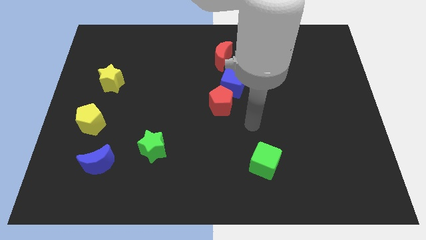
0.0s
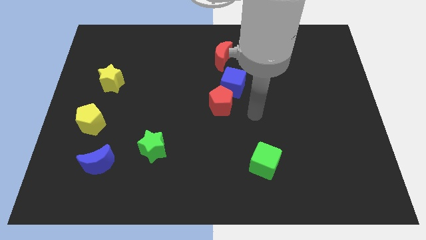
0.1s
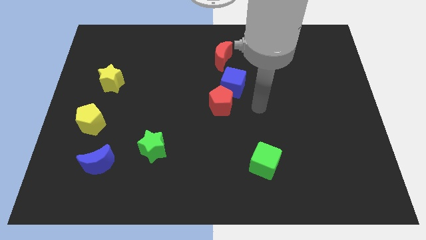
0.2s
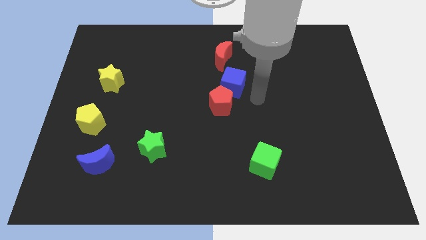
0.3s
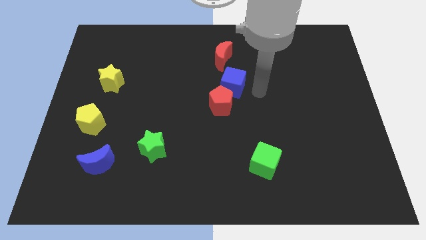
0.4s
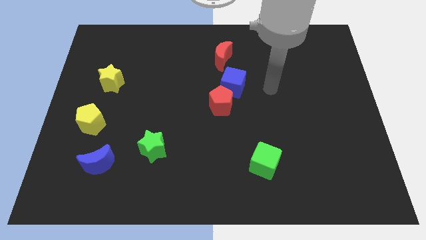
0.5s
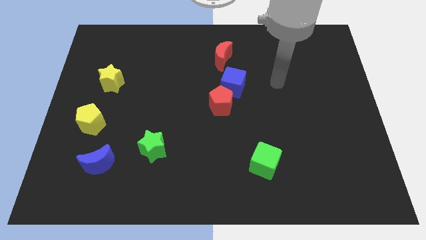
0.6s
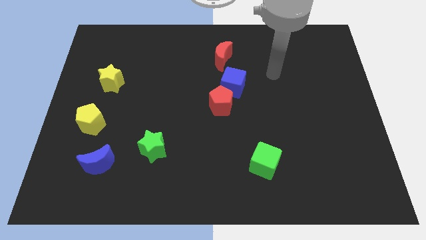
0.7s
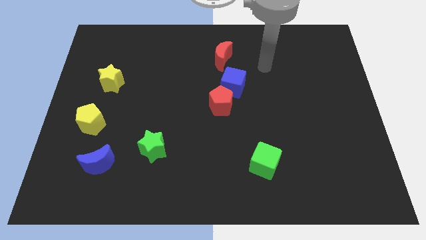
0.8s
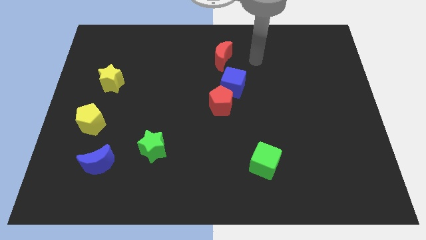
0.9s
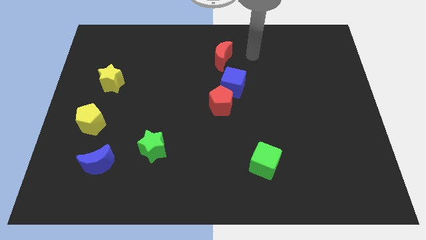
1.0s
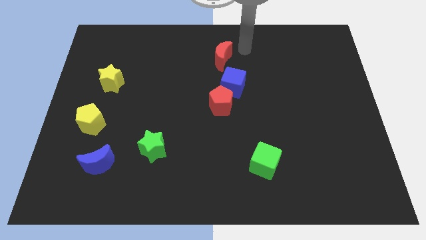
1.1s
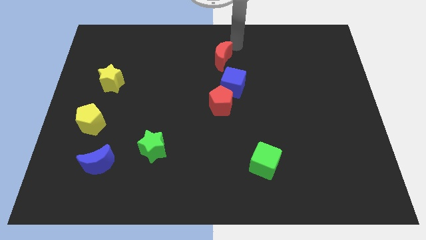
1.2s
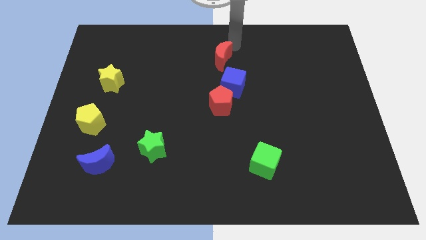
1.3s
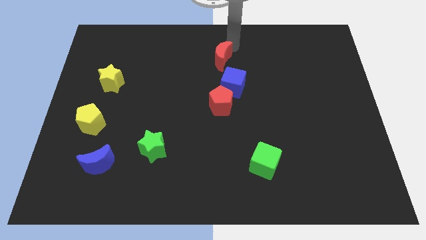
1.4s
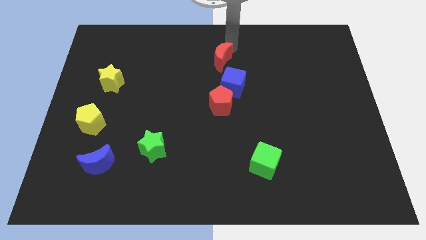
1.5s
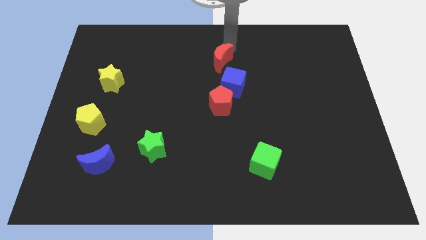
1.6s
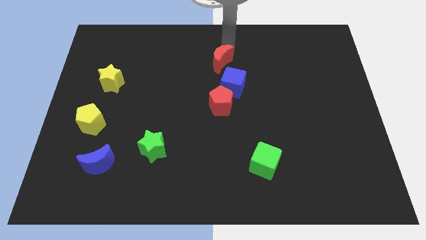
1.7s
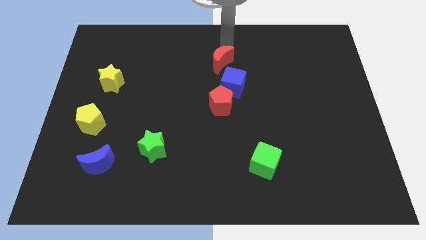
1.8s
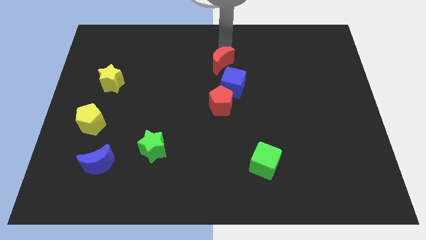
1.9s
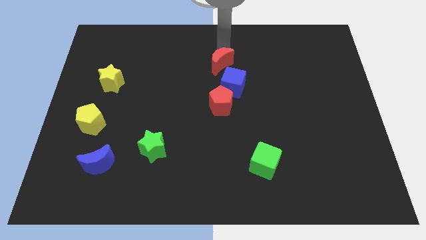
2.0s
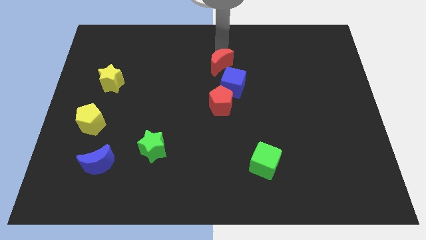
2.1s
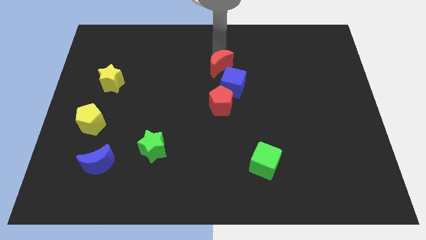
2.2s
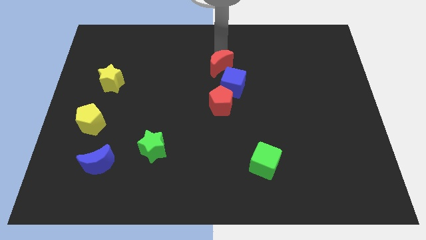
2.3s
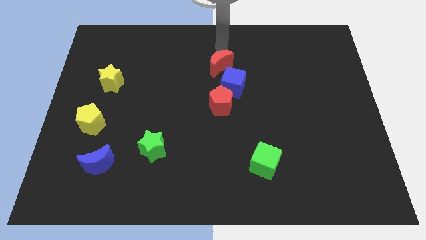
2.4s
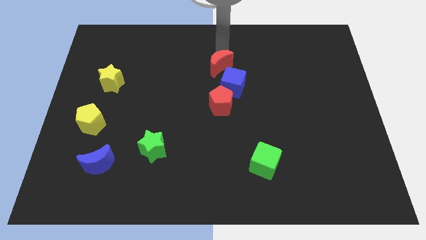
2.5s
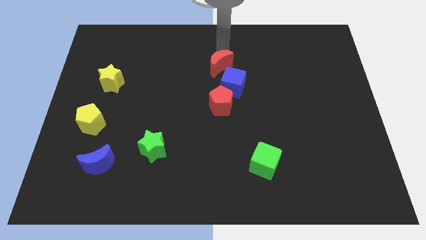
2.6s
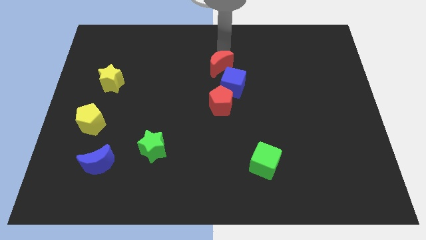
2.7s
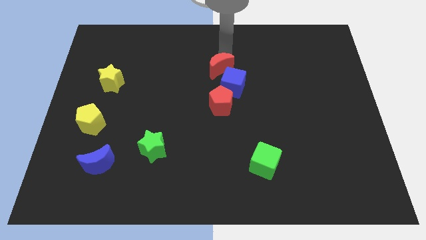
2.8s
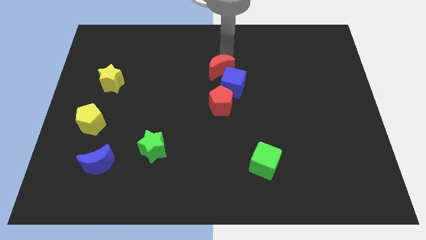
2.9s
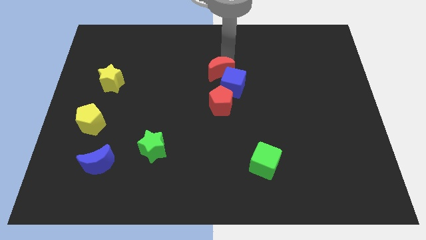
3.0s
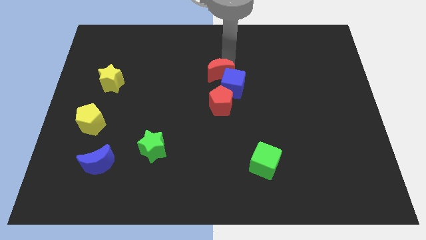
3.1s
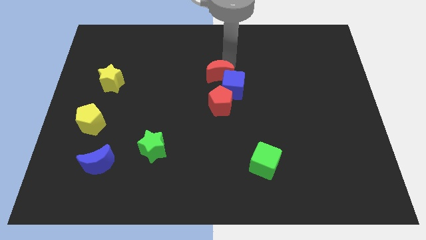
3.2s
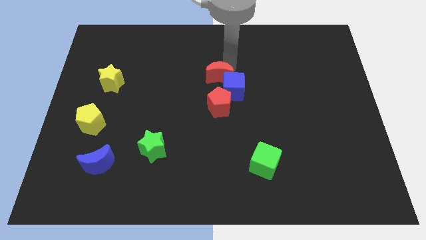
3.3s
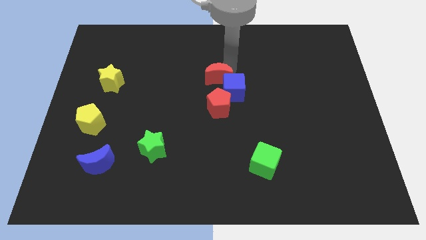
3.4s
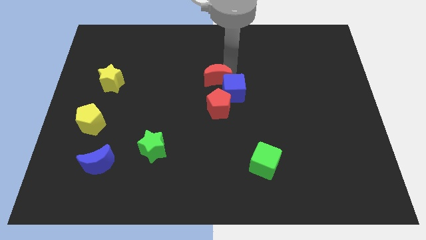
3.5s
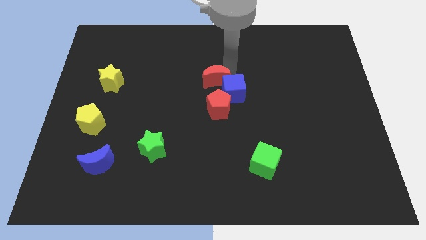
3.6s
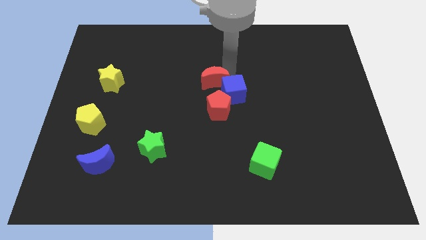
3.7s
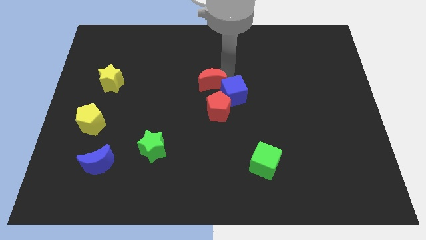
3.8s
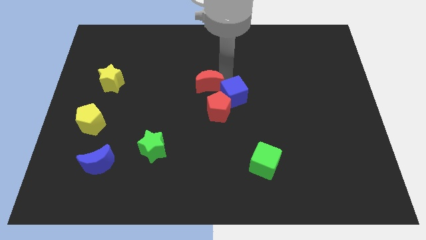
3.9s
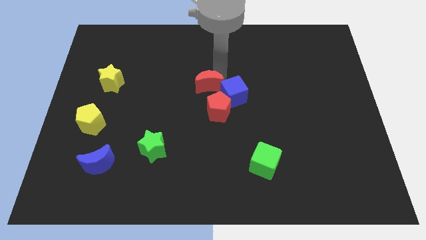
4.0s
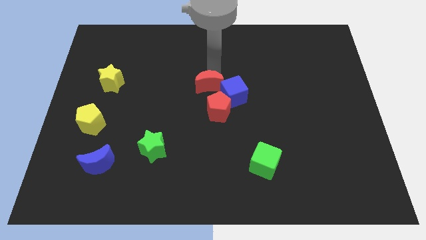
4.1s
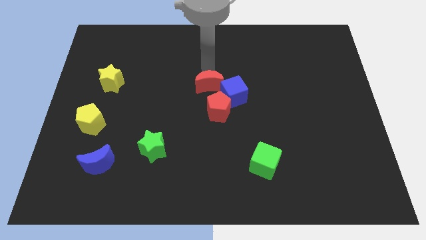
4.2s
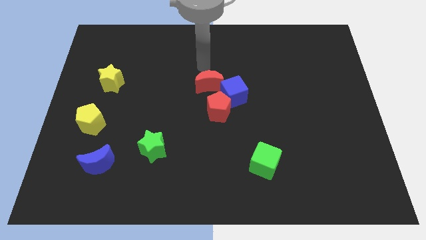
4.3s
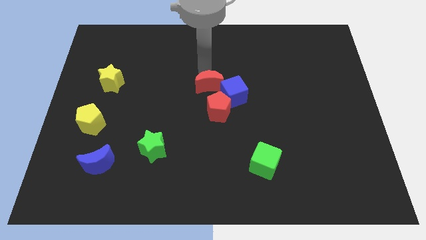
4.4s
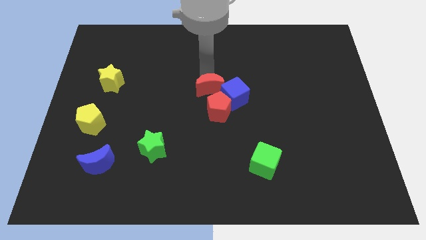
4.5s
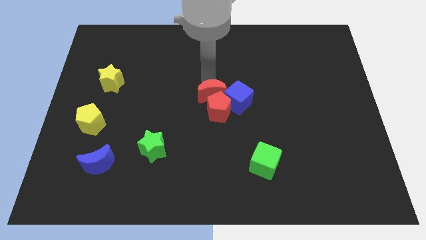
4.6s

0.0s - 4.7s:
move the red moon close to the red pentagon

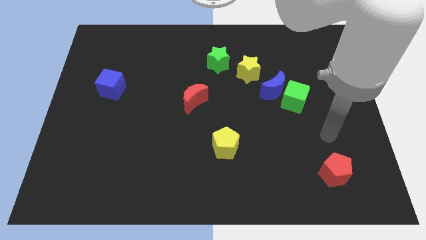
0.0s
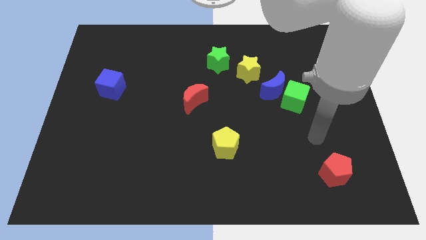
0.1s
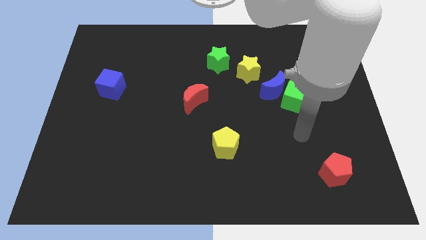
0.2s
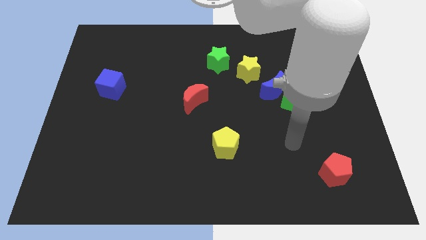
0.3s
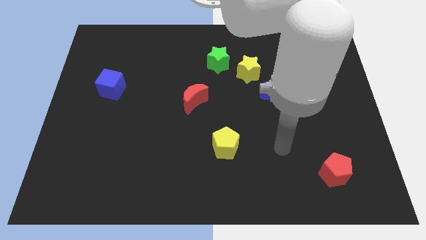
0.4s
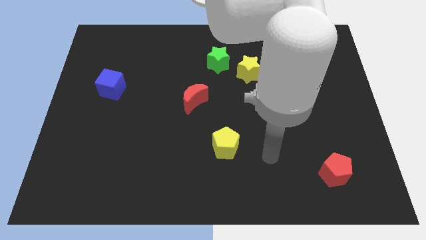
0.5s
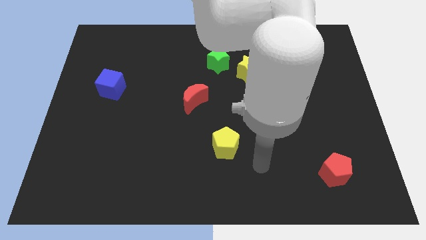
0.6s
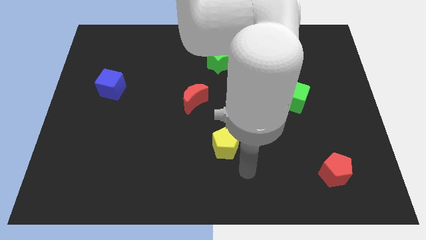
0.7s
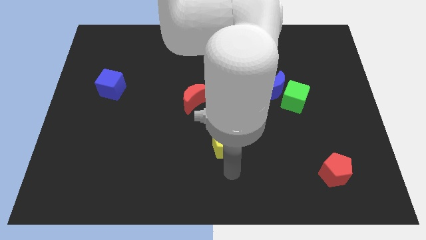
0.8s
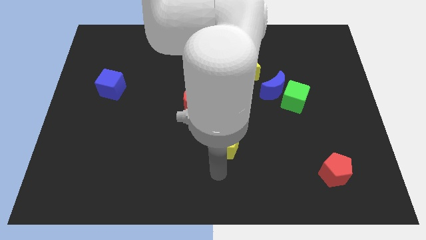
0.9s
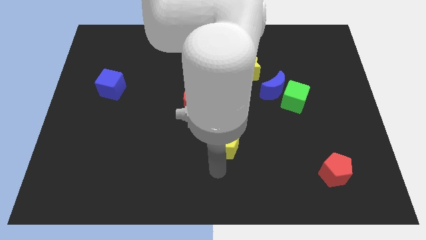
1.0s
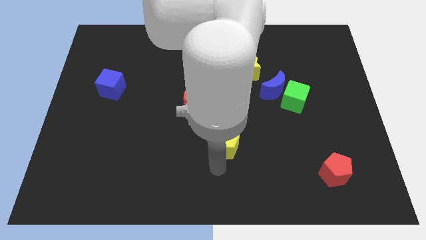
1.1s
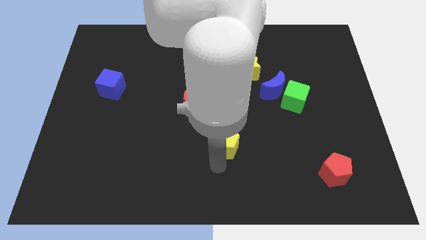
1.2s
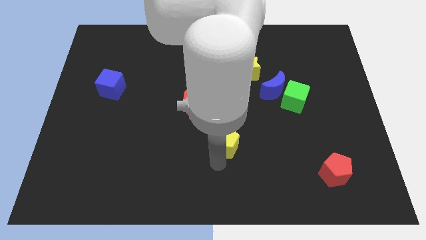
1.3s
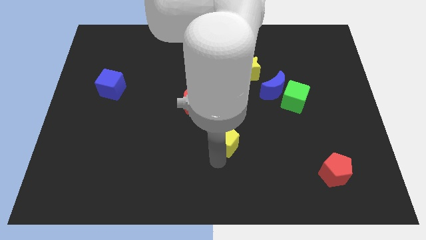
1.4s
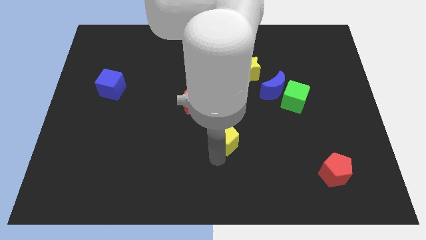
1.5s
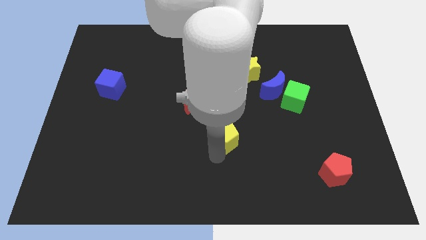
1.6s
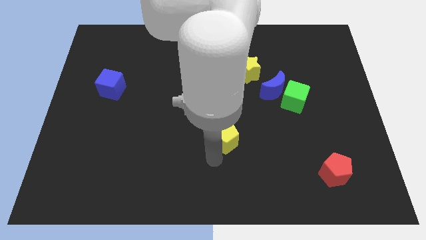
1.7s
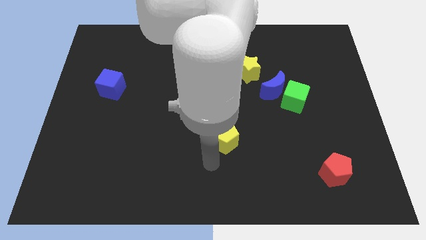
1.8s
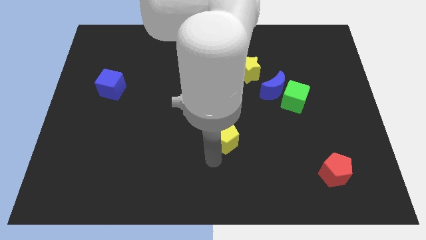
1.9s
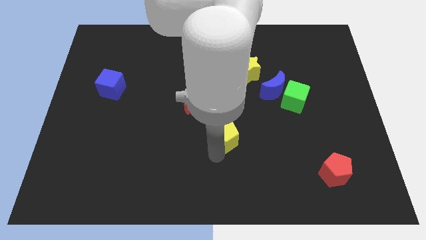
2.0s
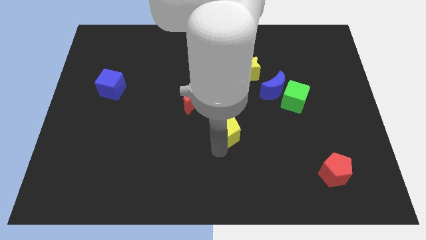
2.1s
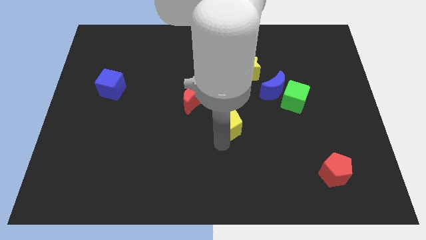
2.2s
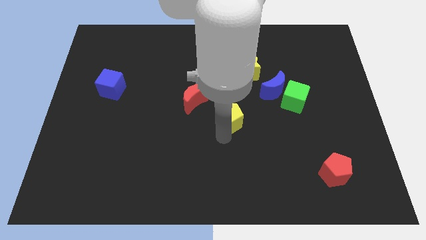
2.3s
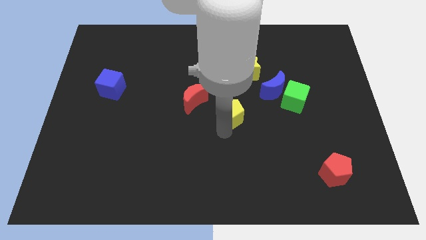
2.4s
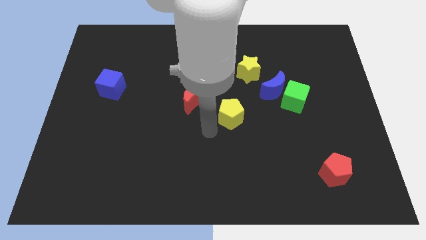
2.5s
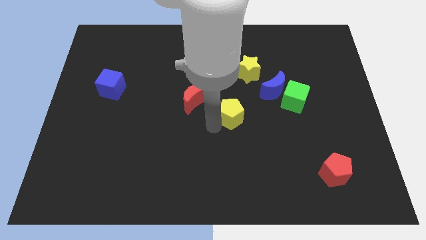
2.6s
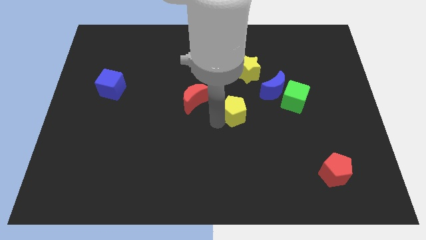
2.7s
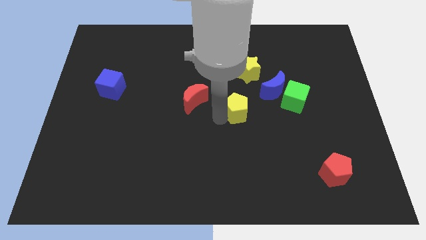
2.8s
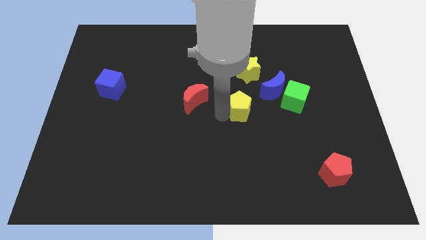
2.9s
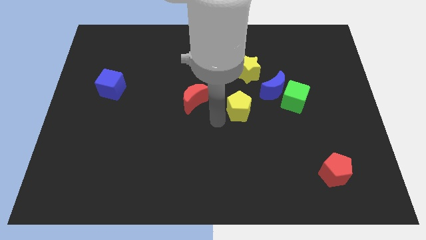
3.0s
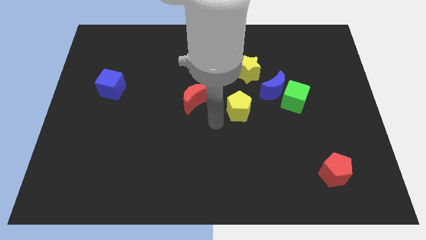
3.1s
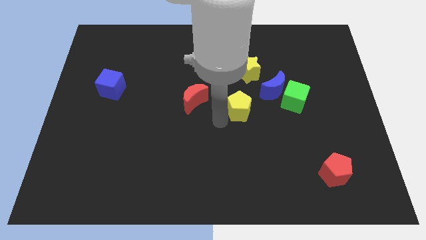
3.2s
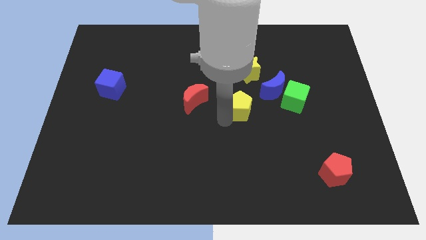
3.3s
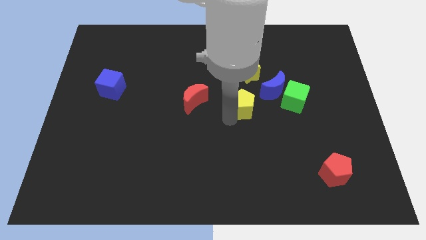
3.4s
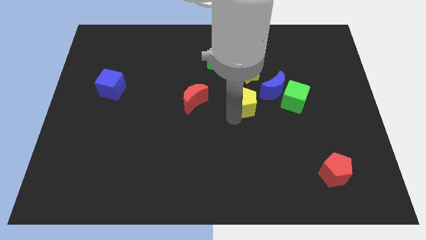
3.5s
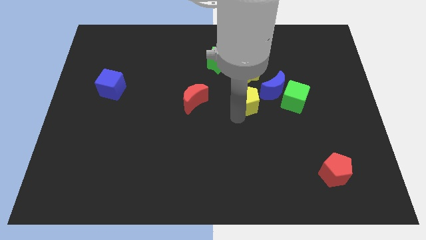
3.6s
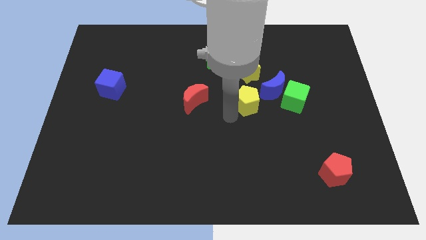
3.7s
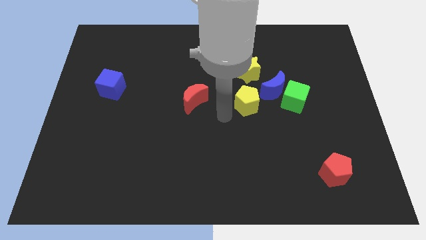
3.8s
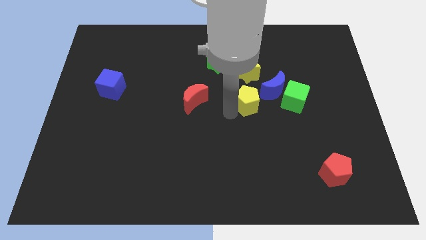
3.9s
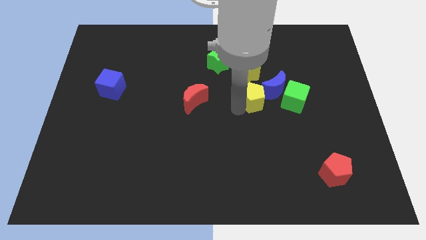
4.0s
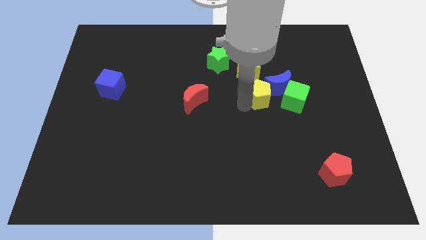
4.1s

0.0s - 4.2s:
push the yellow pentagon next to the blue moon
